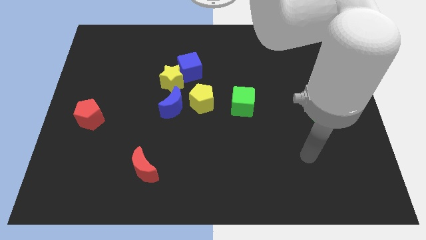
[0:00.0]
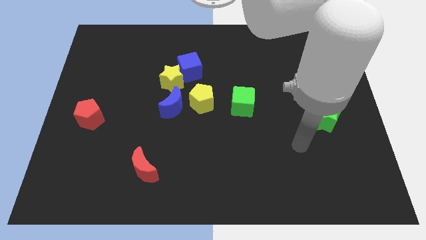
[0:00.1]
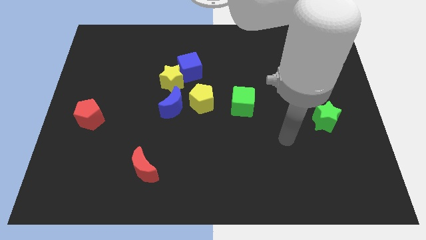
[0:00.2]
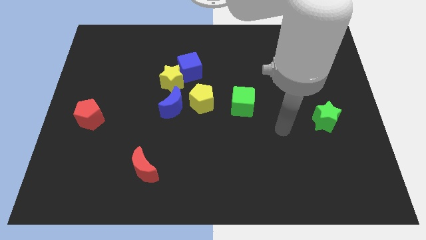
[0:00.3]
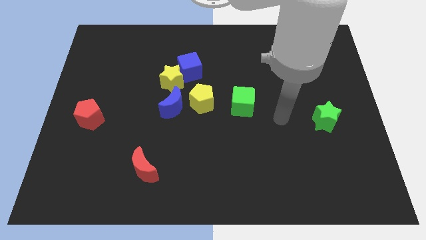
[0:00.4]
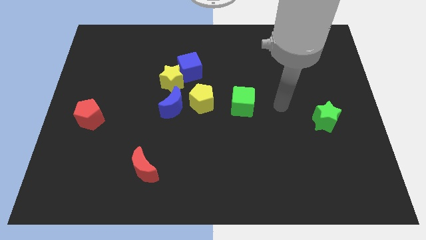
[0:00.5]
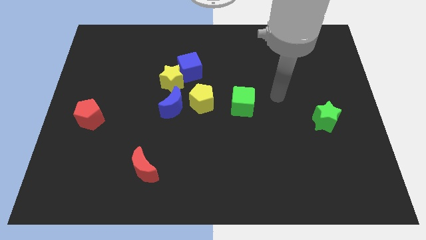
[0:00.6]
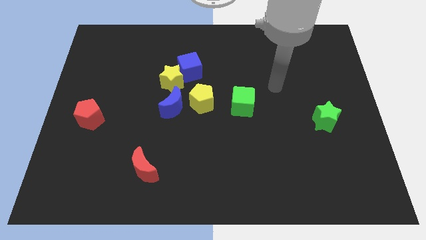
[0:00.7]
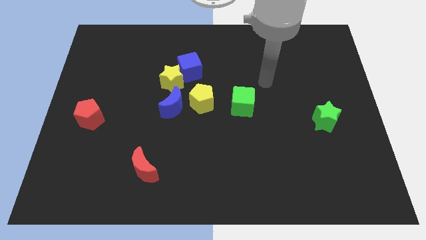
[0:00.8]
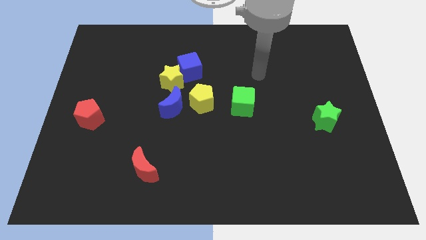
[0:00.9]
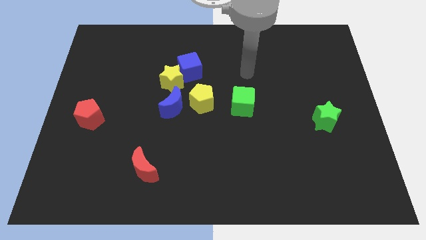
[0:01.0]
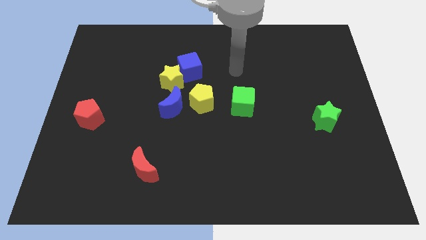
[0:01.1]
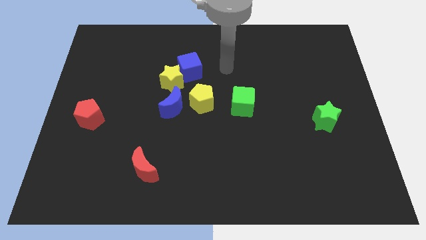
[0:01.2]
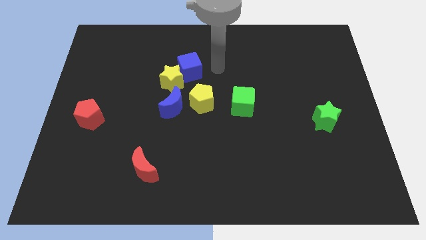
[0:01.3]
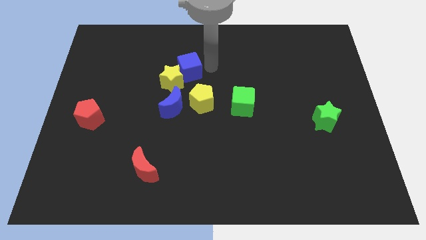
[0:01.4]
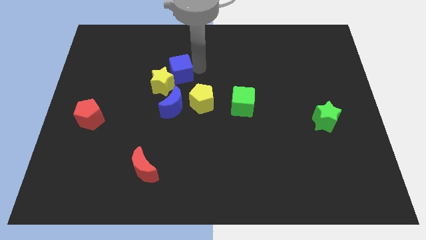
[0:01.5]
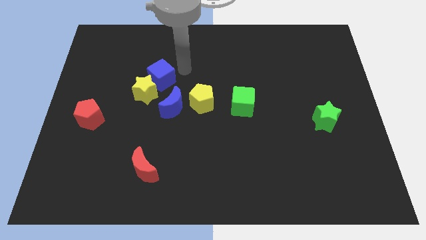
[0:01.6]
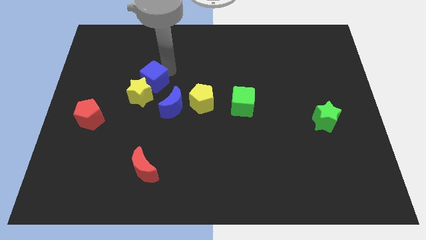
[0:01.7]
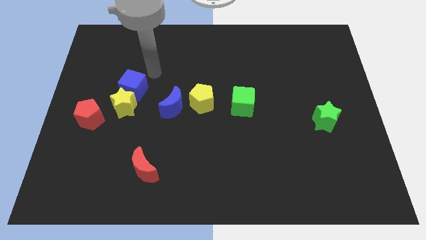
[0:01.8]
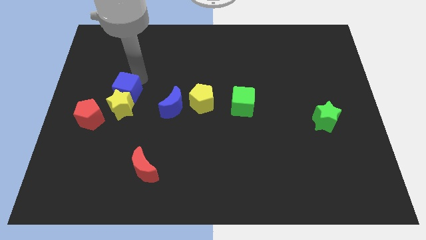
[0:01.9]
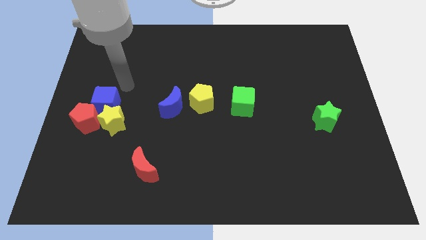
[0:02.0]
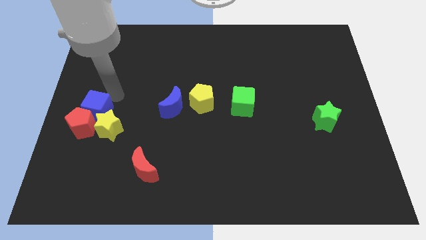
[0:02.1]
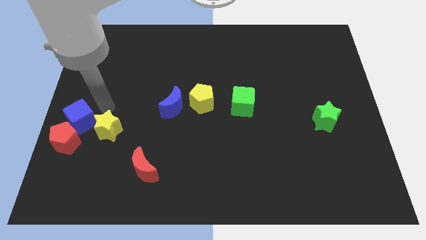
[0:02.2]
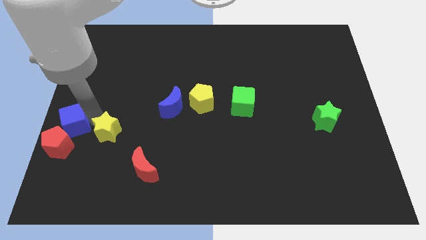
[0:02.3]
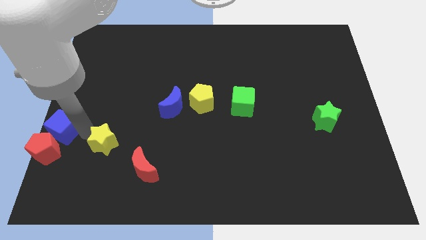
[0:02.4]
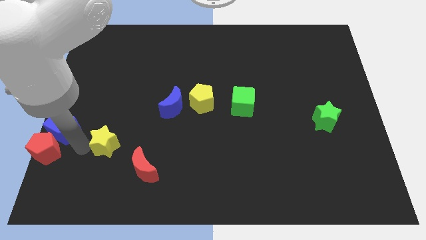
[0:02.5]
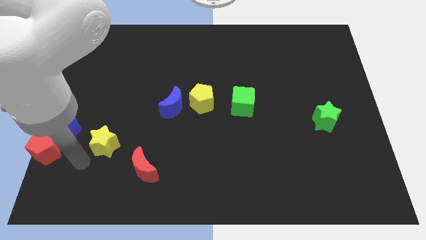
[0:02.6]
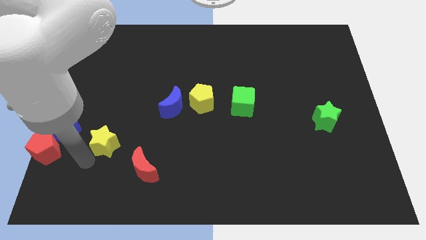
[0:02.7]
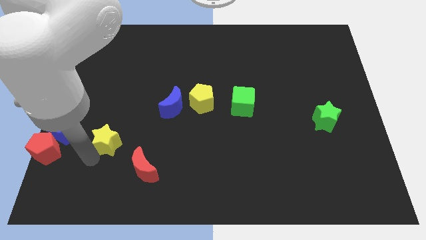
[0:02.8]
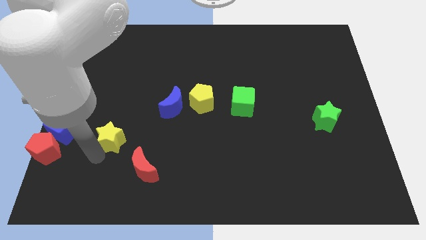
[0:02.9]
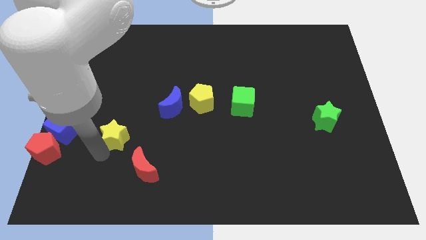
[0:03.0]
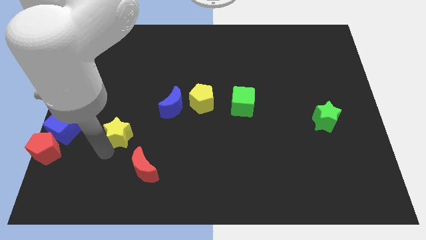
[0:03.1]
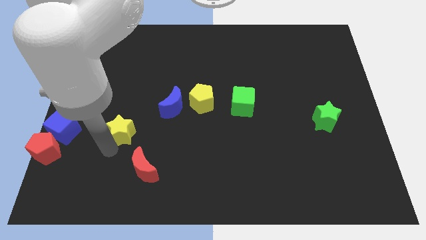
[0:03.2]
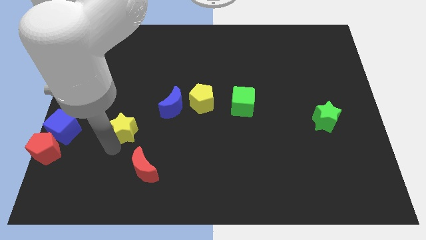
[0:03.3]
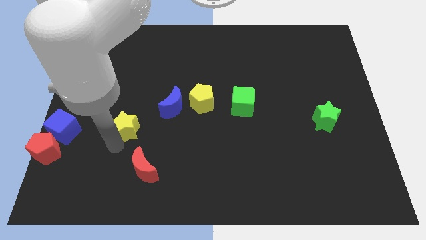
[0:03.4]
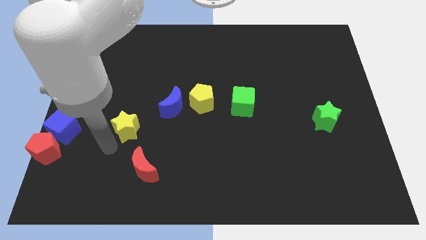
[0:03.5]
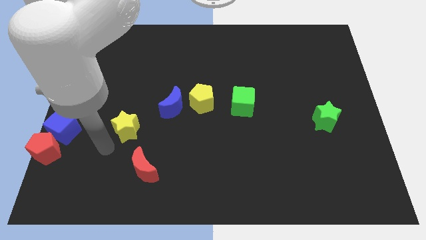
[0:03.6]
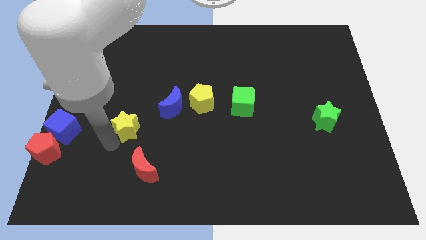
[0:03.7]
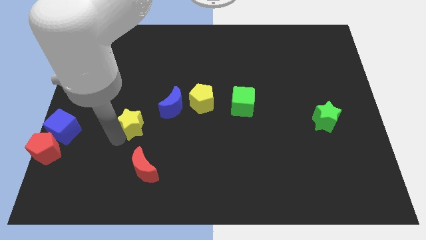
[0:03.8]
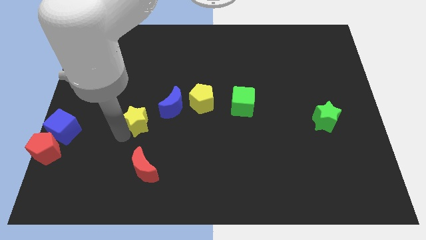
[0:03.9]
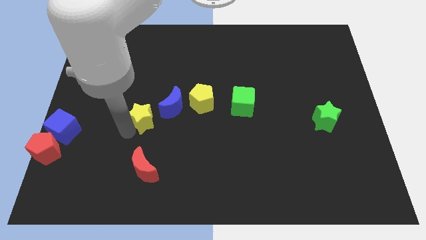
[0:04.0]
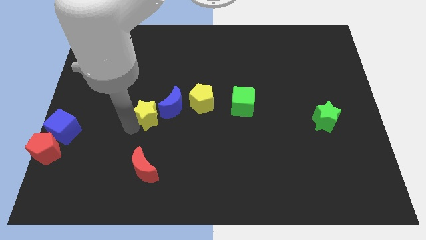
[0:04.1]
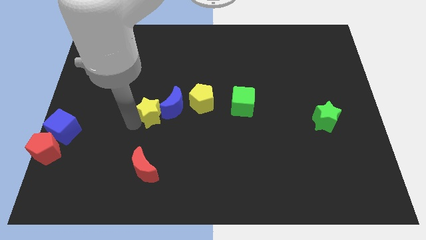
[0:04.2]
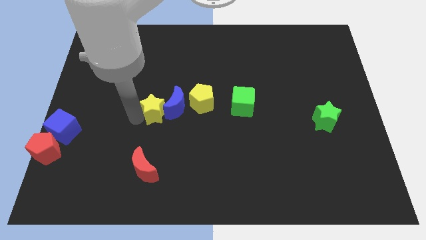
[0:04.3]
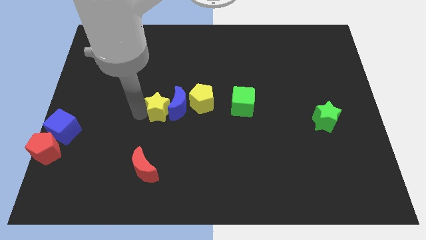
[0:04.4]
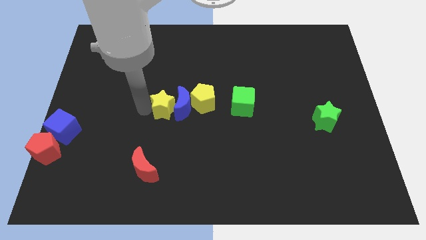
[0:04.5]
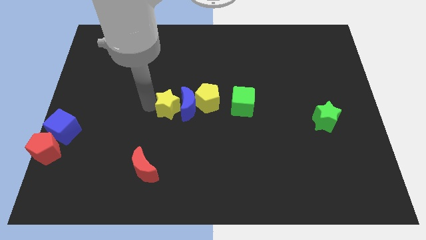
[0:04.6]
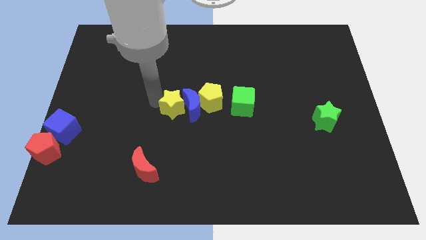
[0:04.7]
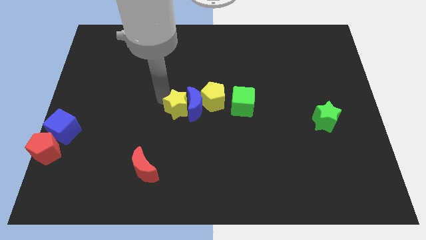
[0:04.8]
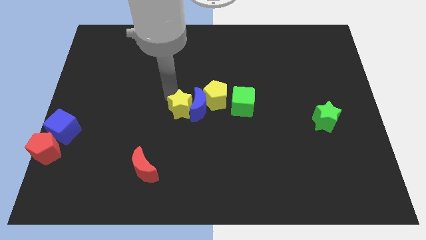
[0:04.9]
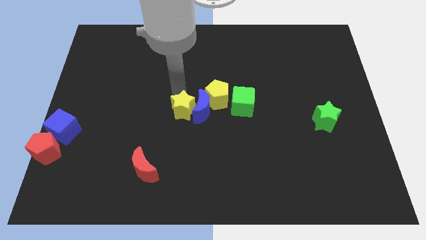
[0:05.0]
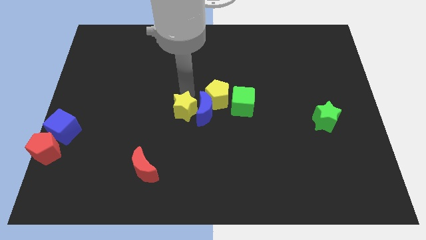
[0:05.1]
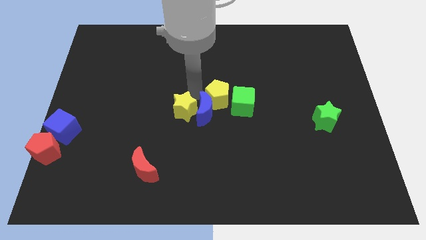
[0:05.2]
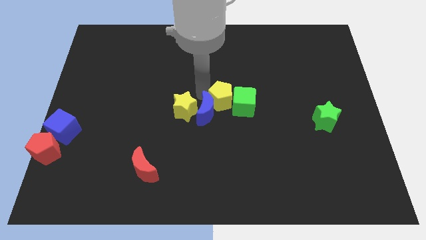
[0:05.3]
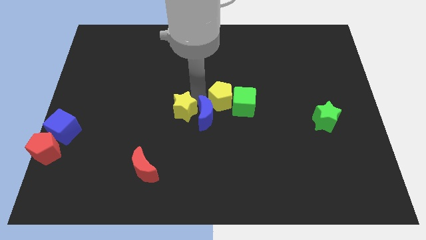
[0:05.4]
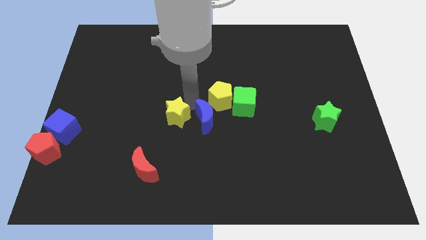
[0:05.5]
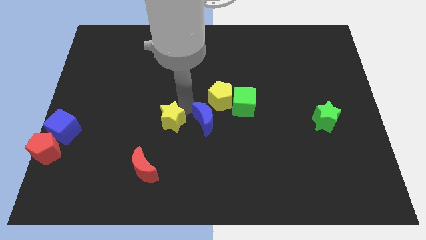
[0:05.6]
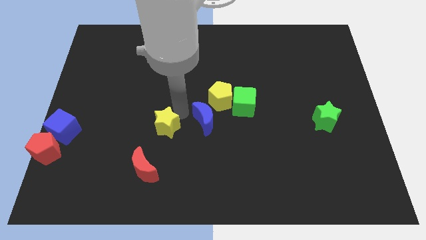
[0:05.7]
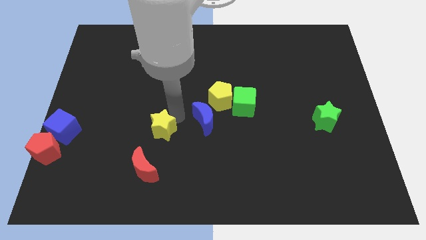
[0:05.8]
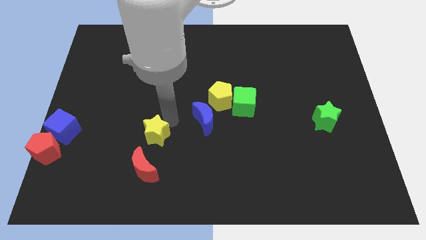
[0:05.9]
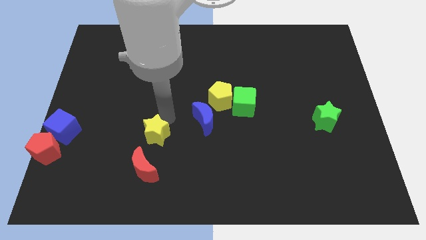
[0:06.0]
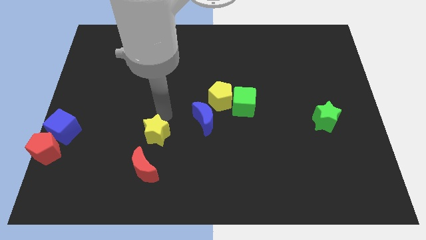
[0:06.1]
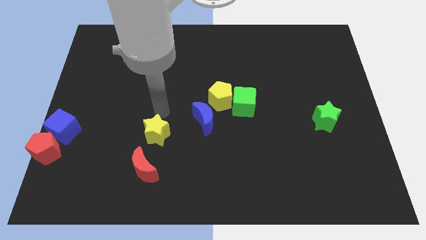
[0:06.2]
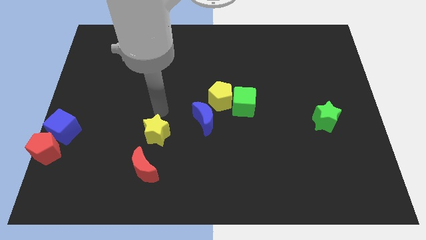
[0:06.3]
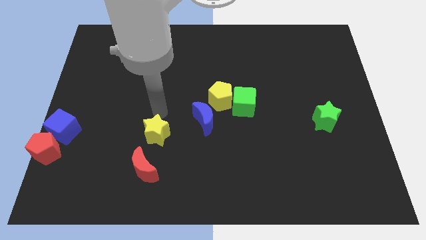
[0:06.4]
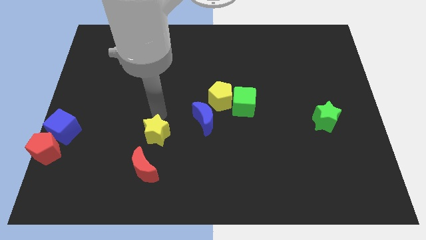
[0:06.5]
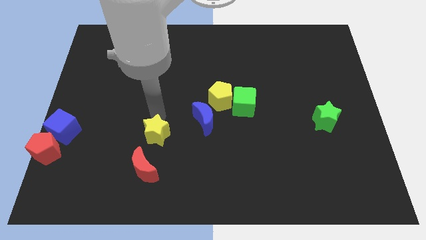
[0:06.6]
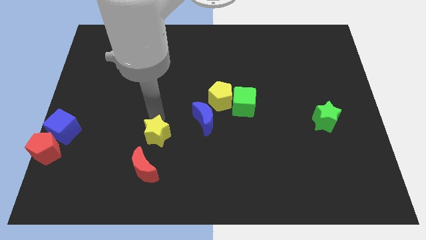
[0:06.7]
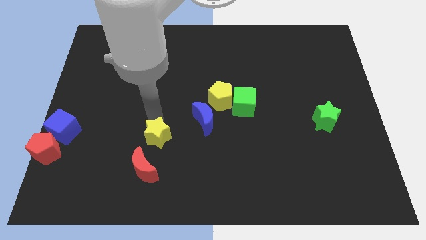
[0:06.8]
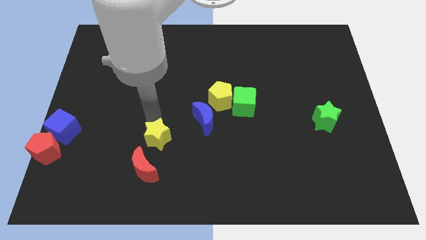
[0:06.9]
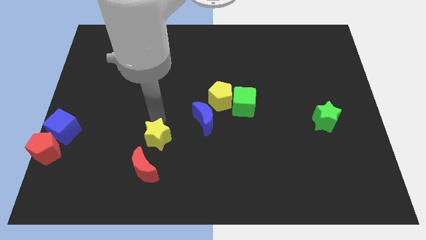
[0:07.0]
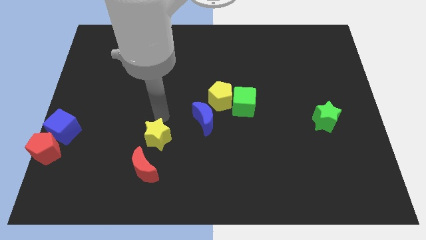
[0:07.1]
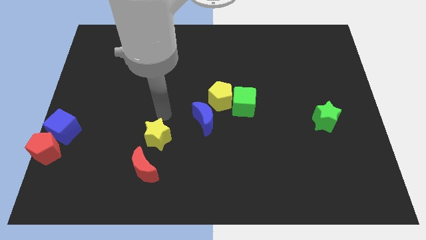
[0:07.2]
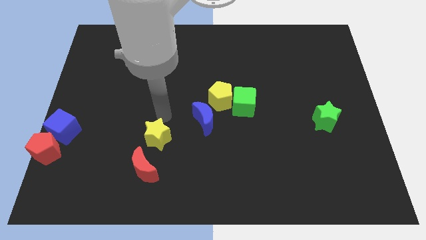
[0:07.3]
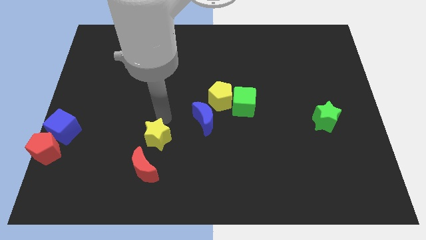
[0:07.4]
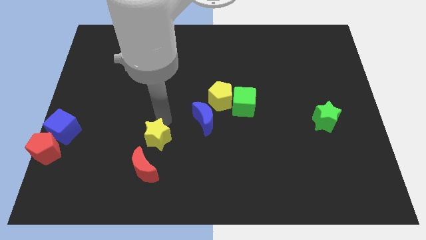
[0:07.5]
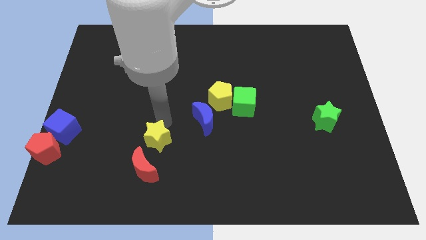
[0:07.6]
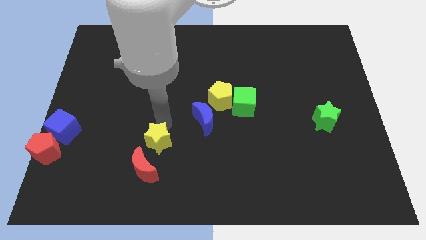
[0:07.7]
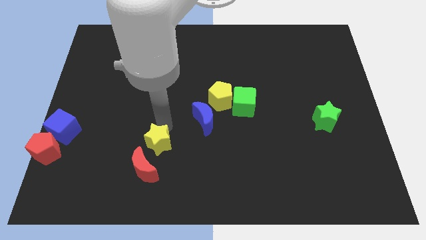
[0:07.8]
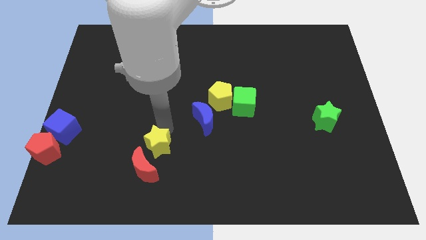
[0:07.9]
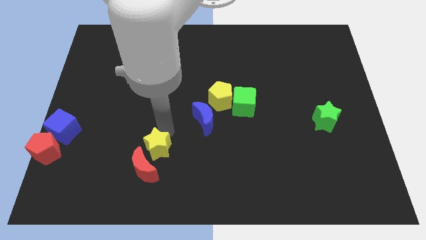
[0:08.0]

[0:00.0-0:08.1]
slide the yellow star to the red moon
